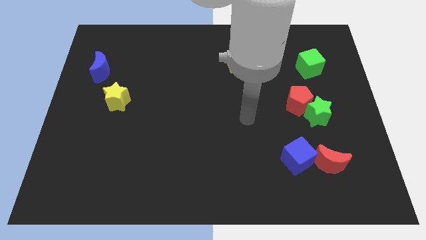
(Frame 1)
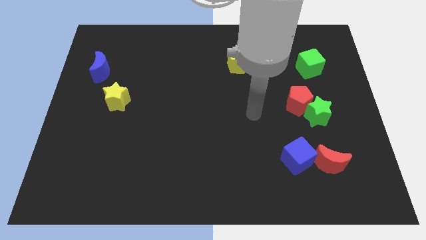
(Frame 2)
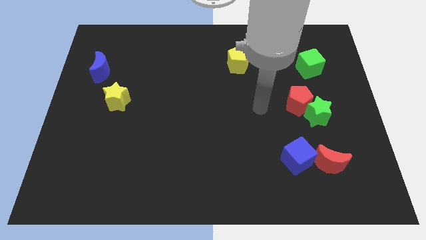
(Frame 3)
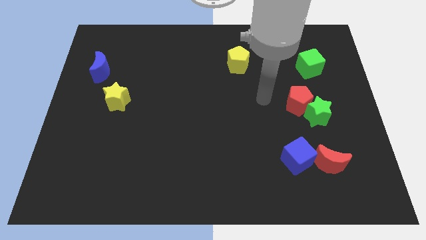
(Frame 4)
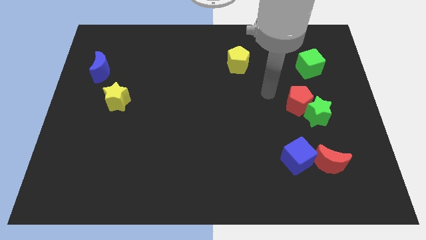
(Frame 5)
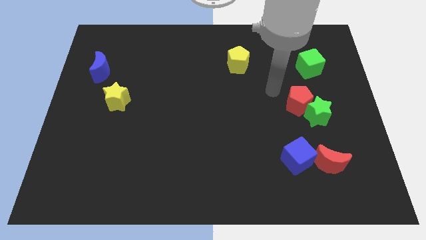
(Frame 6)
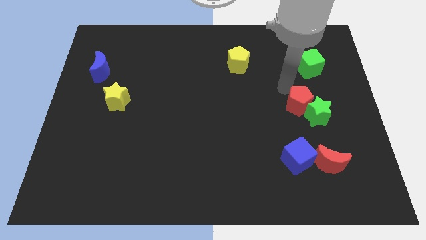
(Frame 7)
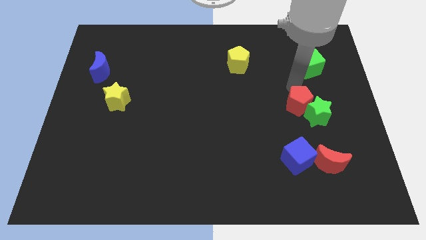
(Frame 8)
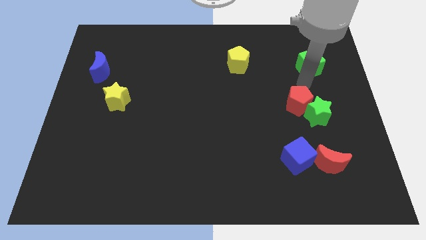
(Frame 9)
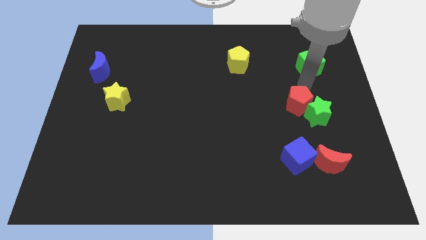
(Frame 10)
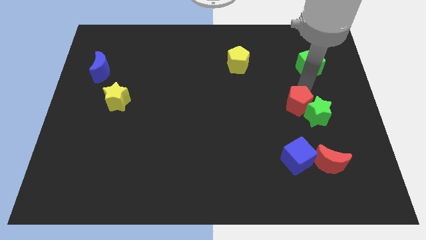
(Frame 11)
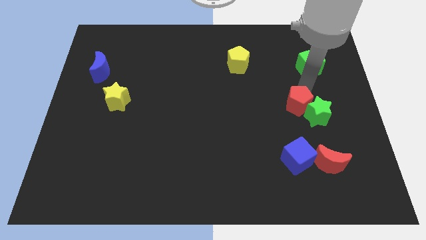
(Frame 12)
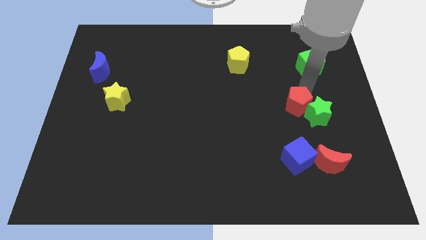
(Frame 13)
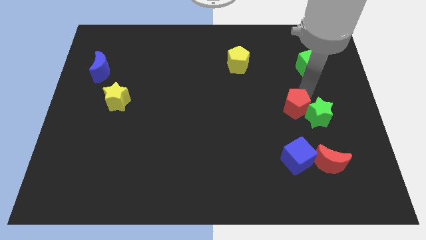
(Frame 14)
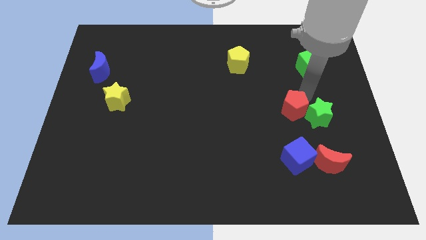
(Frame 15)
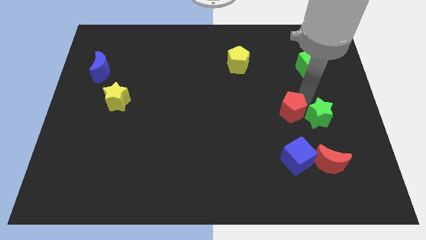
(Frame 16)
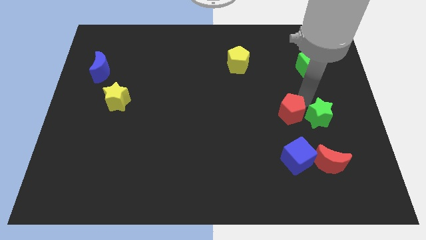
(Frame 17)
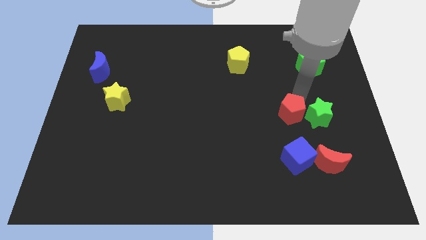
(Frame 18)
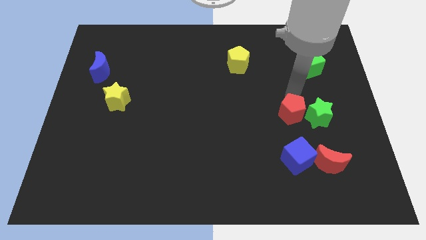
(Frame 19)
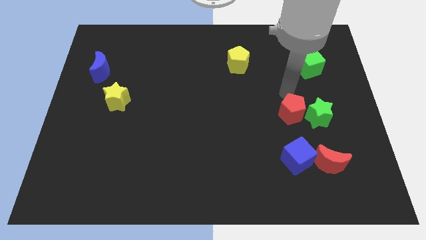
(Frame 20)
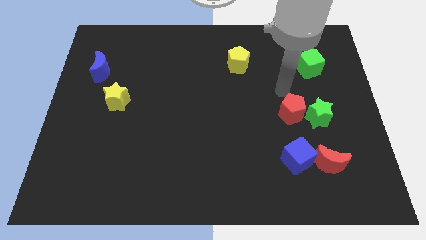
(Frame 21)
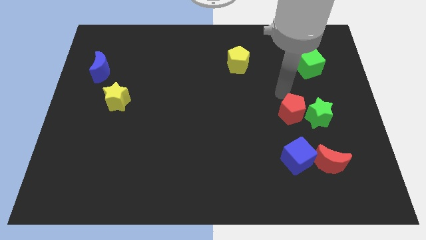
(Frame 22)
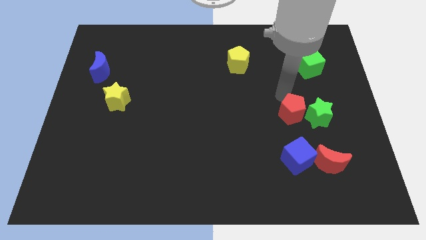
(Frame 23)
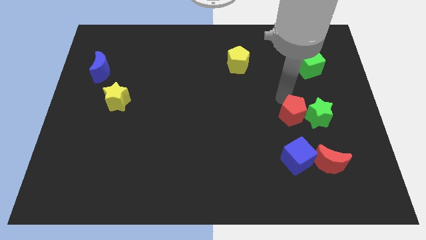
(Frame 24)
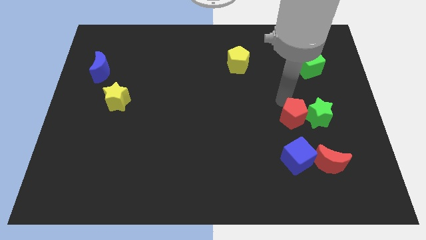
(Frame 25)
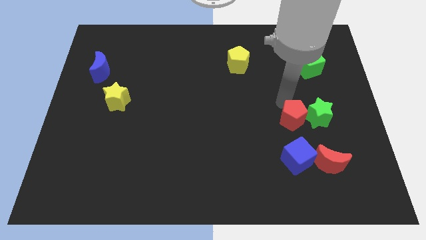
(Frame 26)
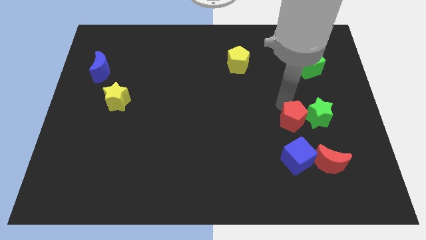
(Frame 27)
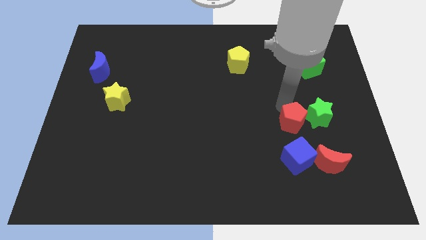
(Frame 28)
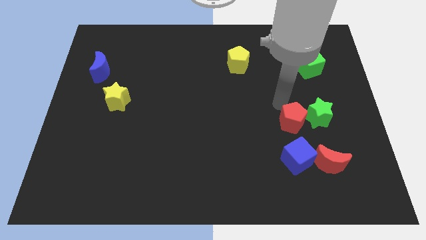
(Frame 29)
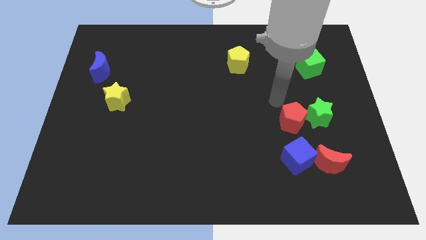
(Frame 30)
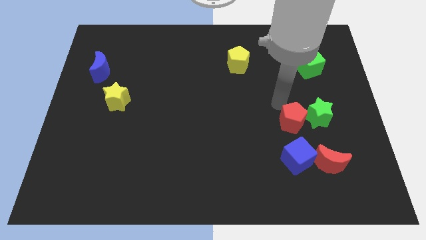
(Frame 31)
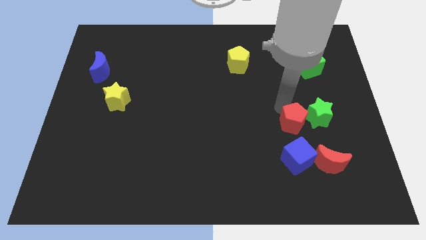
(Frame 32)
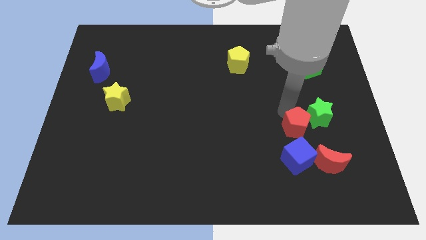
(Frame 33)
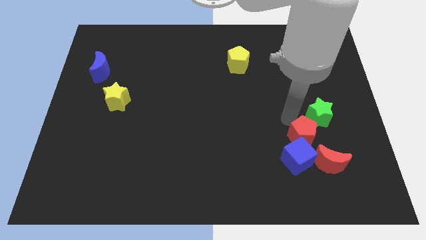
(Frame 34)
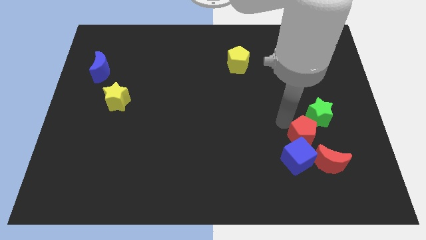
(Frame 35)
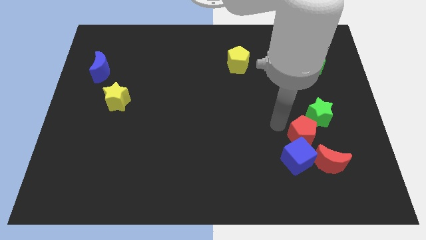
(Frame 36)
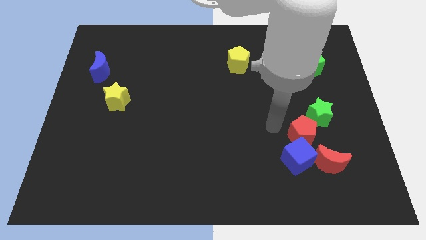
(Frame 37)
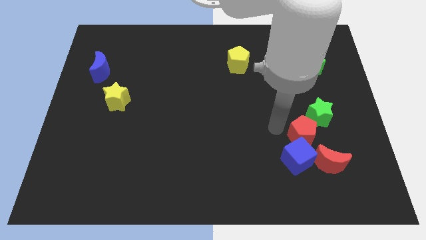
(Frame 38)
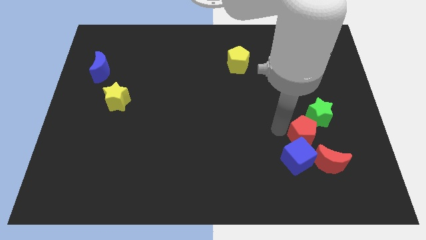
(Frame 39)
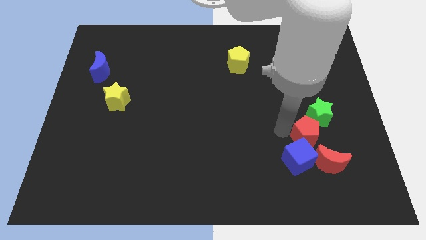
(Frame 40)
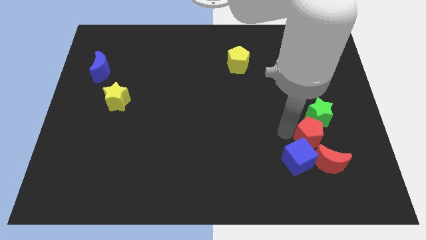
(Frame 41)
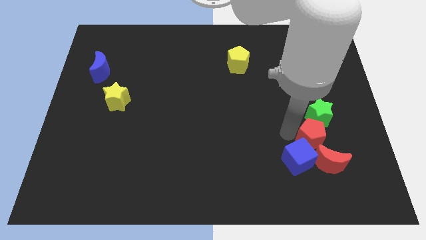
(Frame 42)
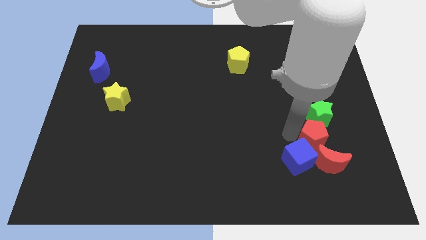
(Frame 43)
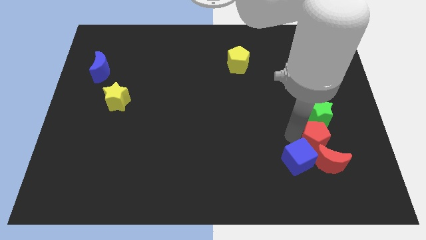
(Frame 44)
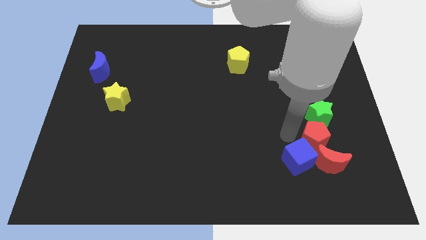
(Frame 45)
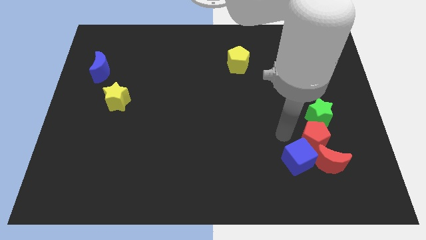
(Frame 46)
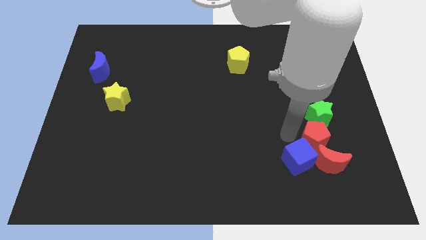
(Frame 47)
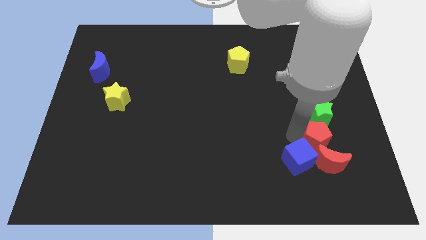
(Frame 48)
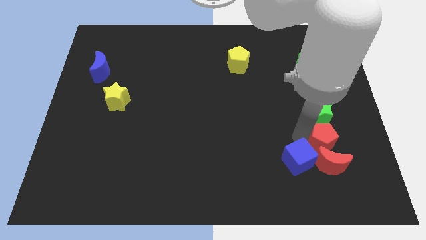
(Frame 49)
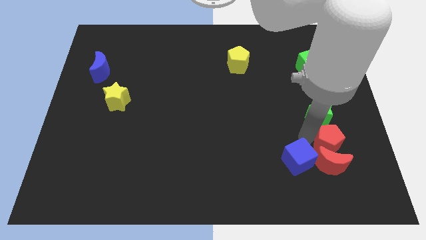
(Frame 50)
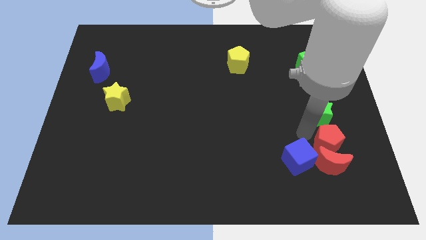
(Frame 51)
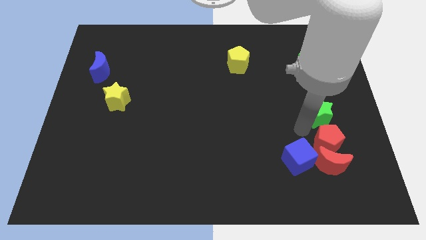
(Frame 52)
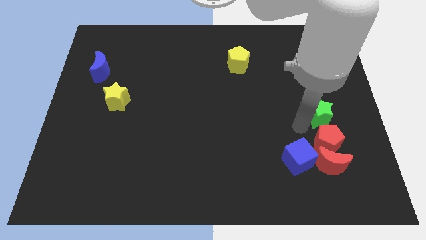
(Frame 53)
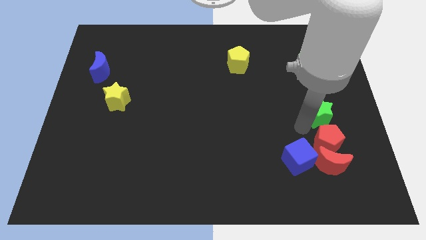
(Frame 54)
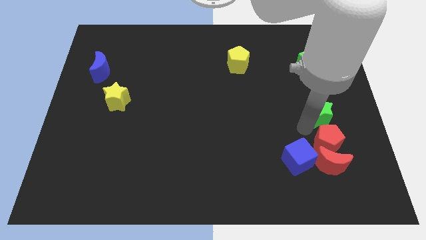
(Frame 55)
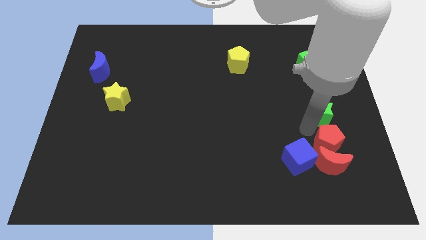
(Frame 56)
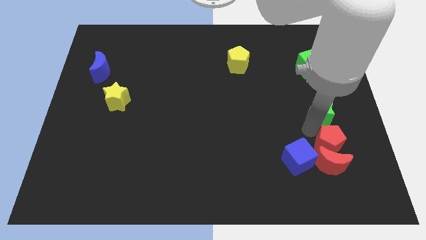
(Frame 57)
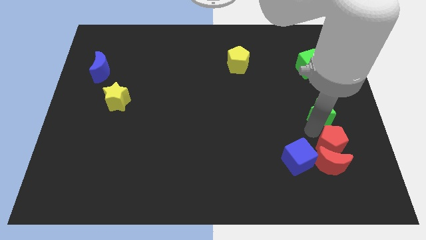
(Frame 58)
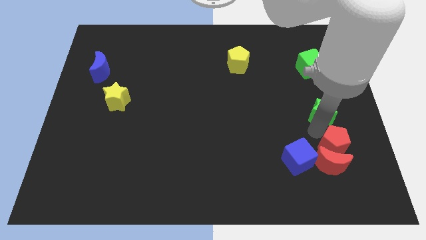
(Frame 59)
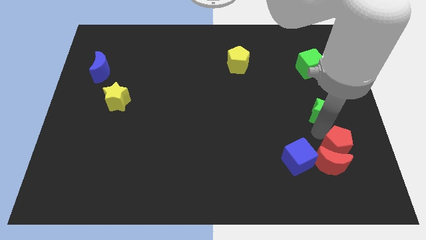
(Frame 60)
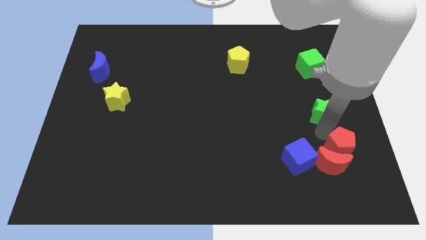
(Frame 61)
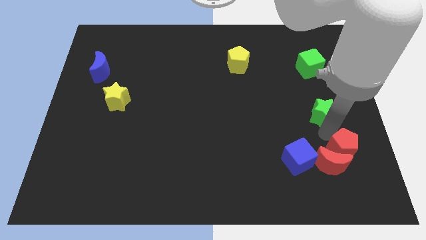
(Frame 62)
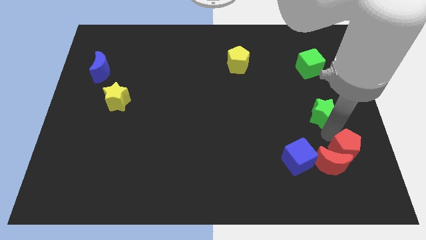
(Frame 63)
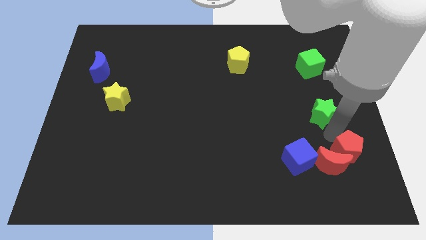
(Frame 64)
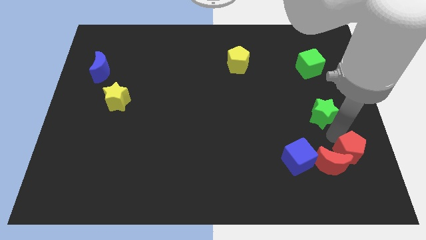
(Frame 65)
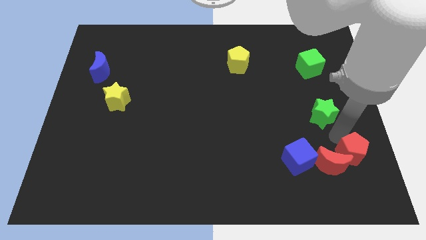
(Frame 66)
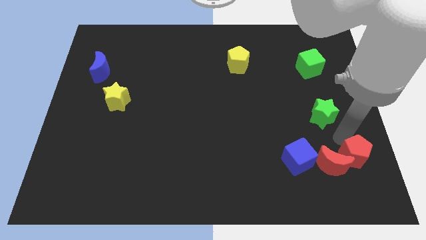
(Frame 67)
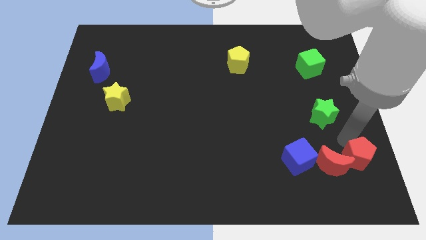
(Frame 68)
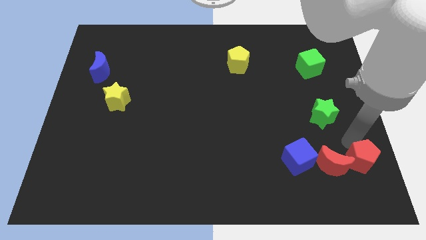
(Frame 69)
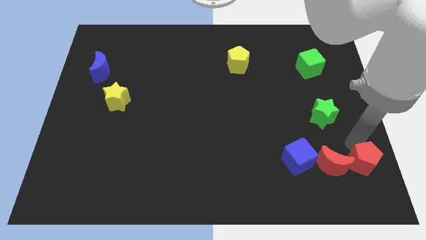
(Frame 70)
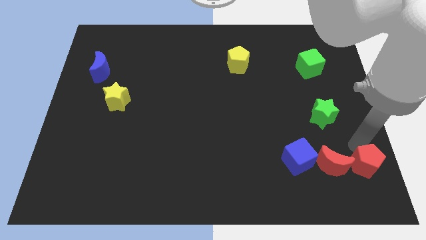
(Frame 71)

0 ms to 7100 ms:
push the red pentagon to the bottom right
